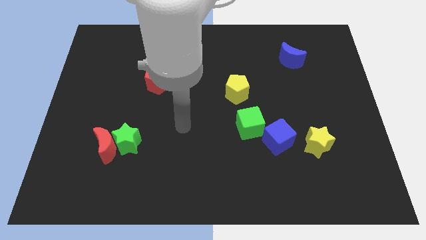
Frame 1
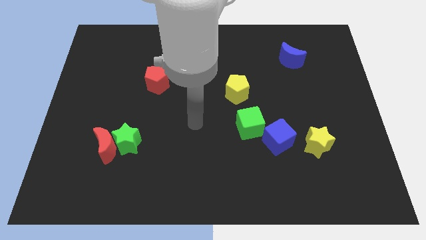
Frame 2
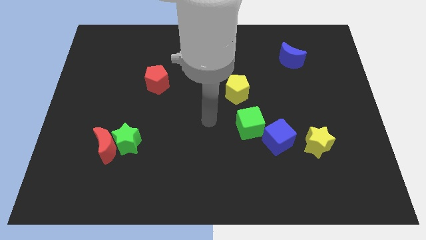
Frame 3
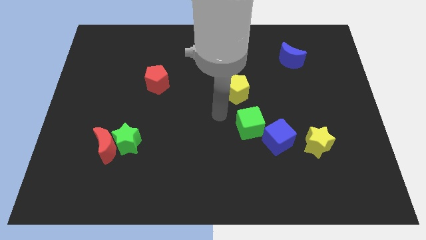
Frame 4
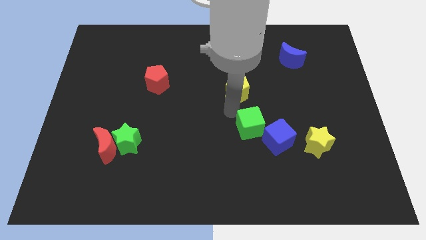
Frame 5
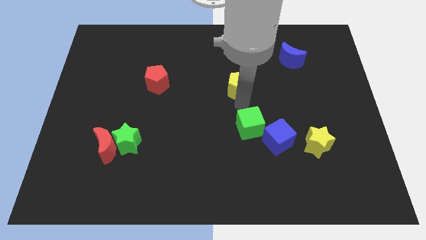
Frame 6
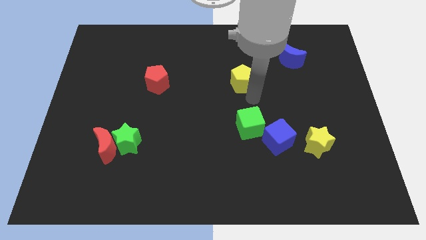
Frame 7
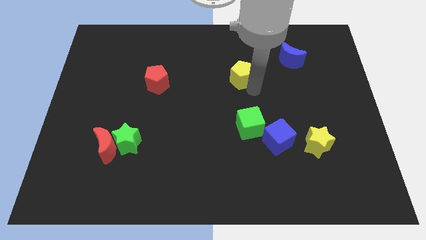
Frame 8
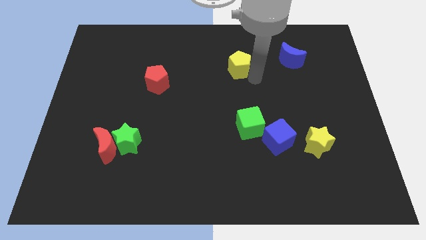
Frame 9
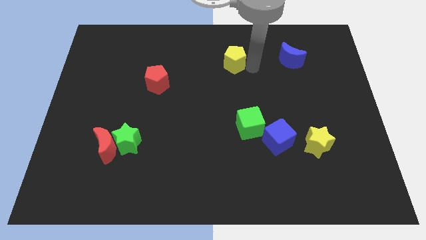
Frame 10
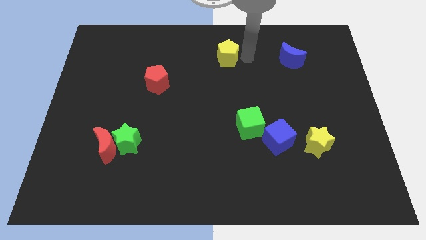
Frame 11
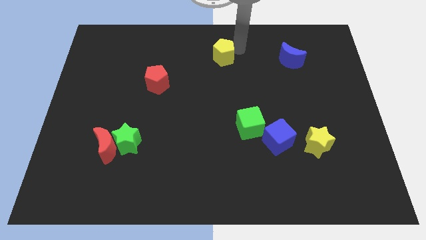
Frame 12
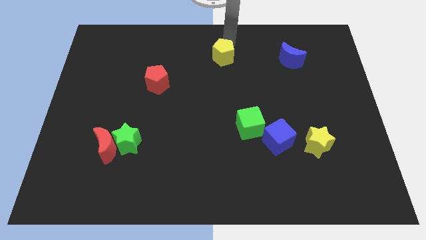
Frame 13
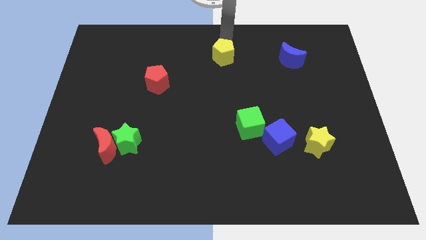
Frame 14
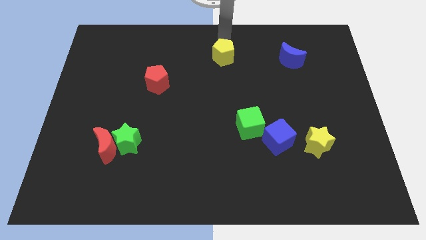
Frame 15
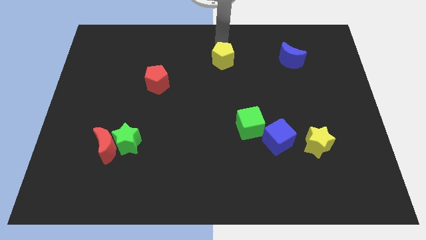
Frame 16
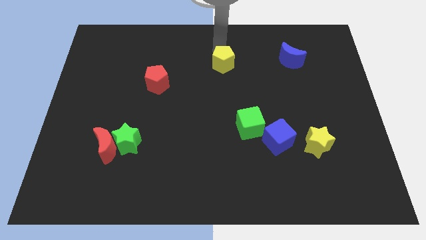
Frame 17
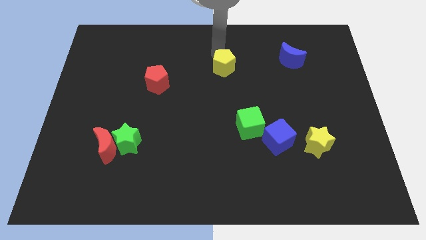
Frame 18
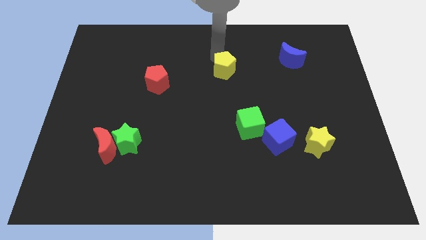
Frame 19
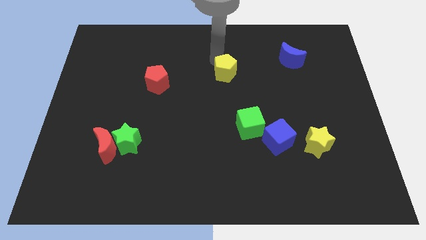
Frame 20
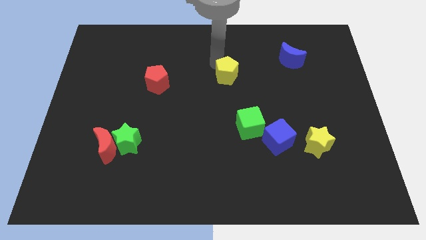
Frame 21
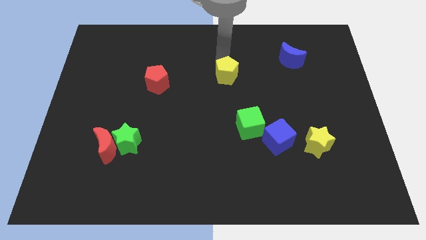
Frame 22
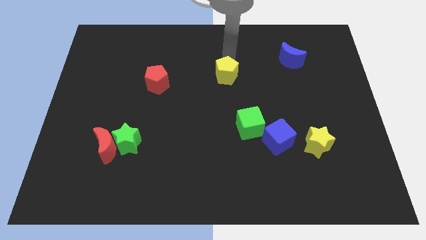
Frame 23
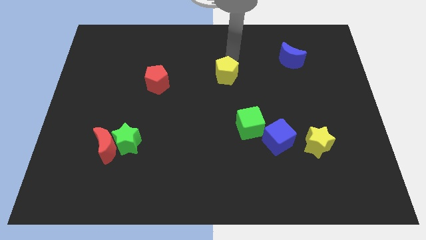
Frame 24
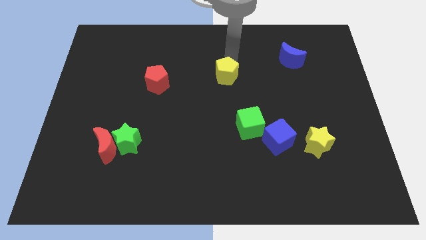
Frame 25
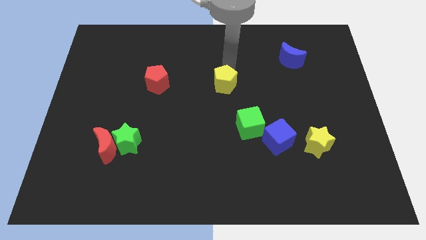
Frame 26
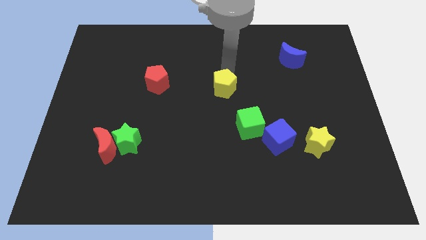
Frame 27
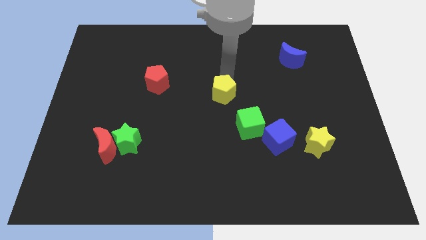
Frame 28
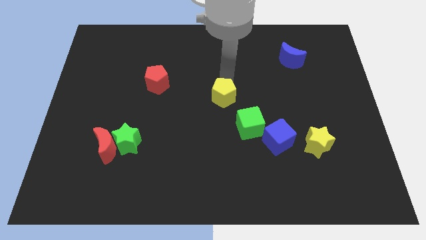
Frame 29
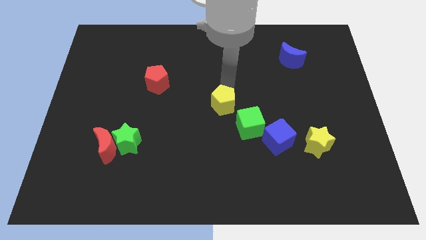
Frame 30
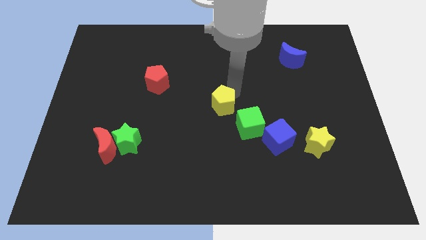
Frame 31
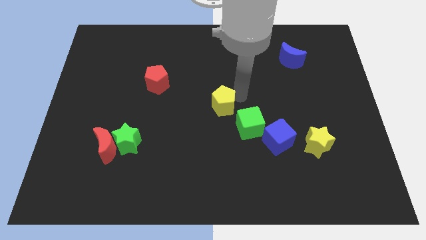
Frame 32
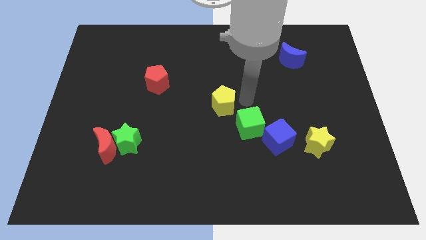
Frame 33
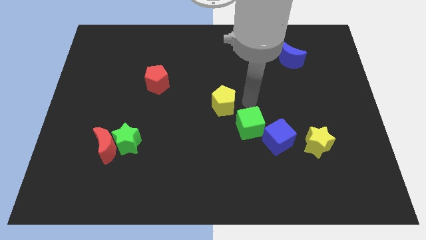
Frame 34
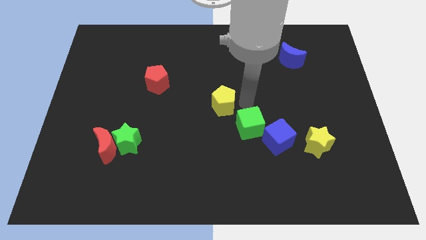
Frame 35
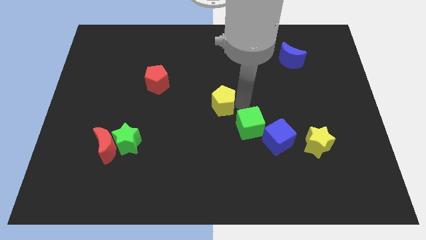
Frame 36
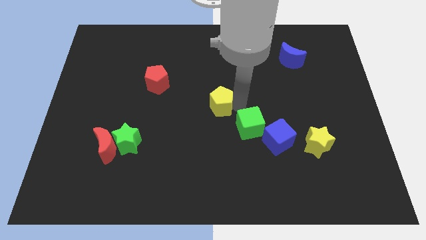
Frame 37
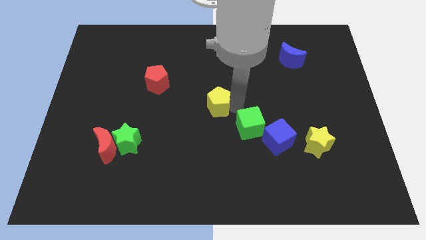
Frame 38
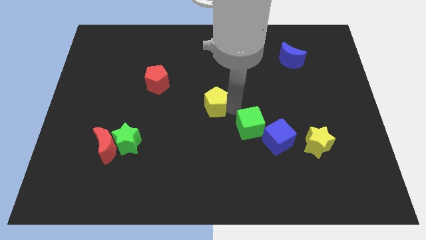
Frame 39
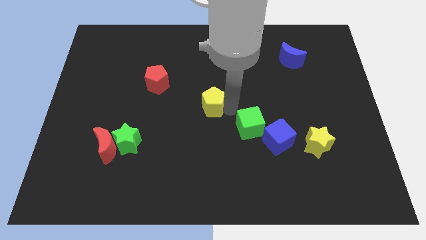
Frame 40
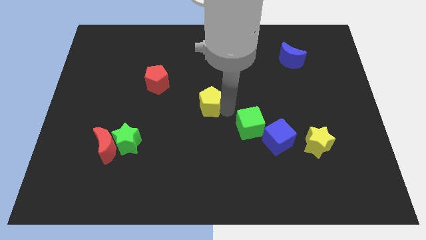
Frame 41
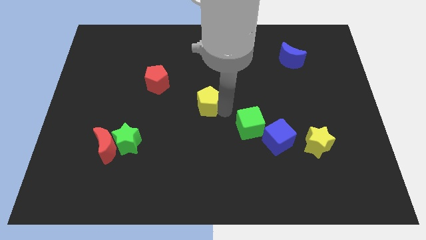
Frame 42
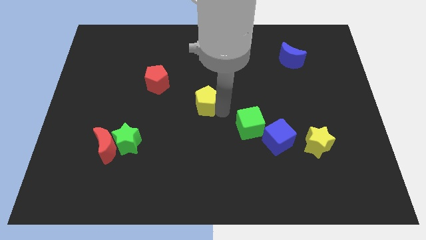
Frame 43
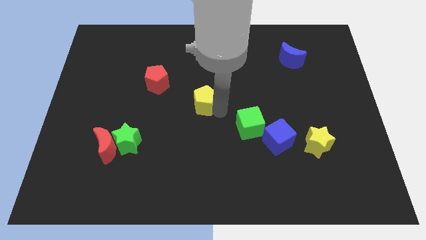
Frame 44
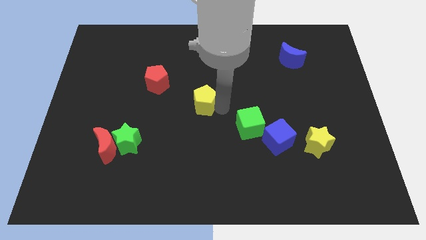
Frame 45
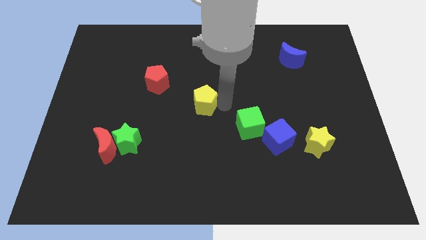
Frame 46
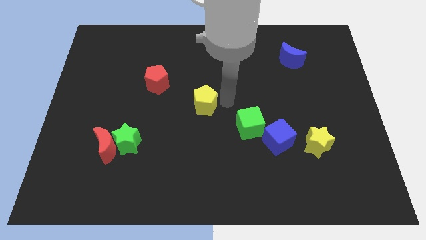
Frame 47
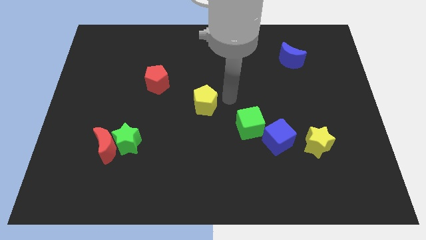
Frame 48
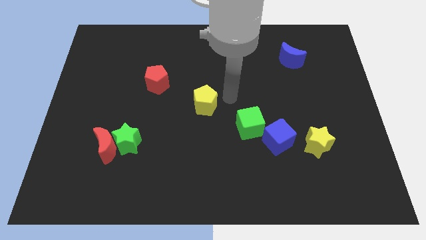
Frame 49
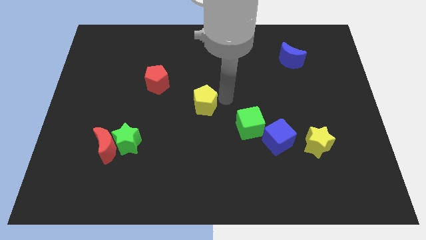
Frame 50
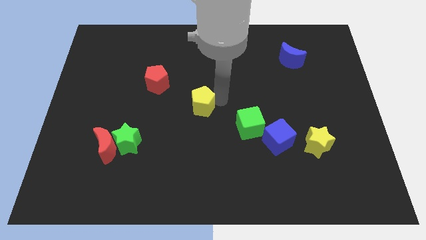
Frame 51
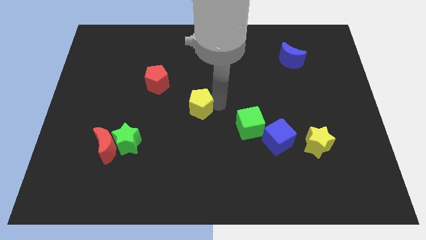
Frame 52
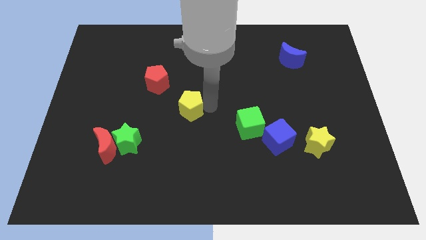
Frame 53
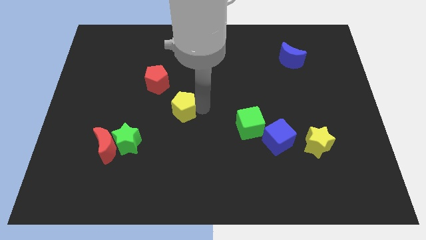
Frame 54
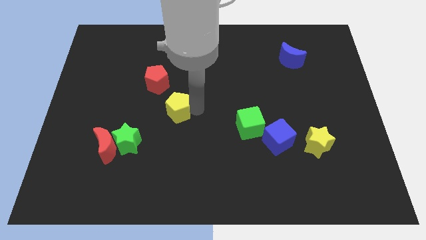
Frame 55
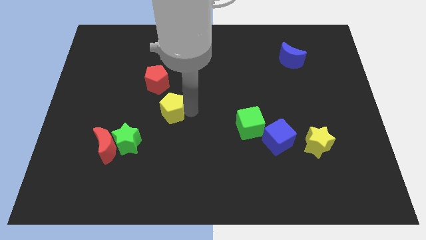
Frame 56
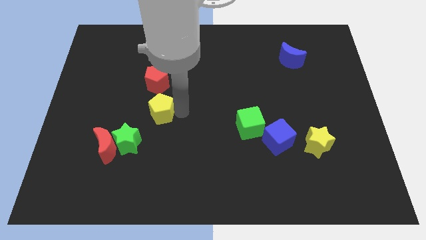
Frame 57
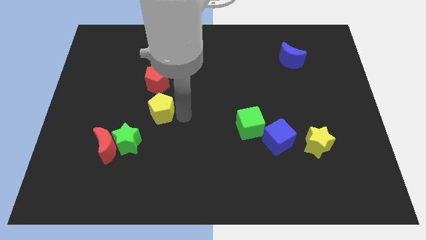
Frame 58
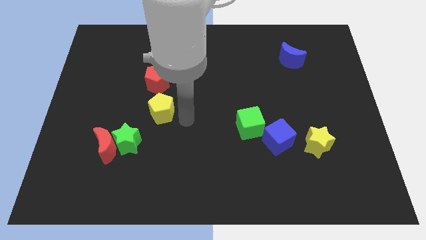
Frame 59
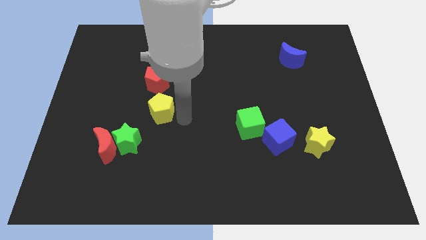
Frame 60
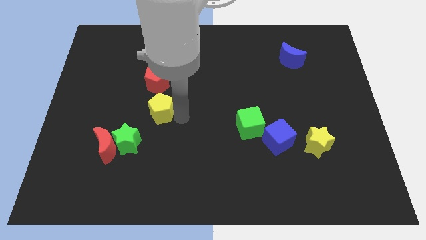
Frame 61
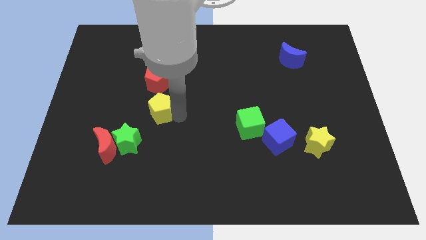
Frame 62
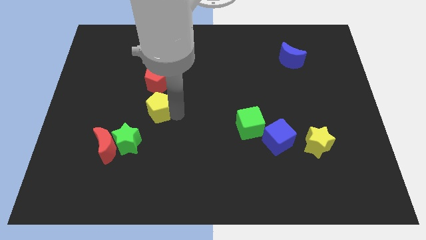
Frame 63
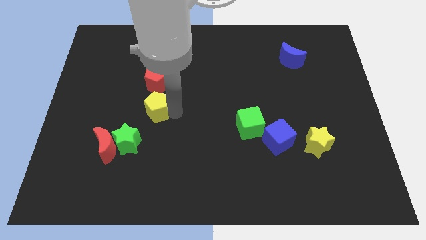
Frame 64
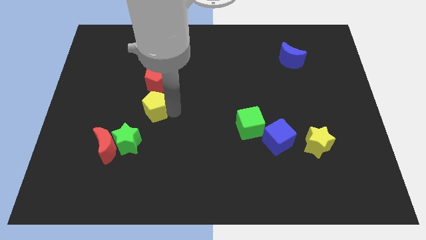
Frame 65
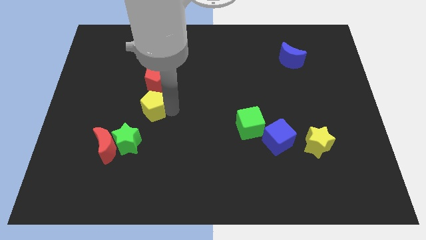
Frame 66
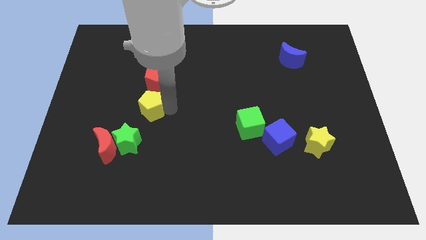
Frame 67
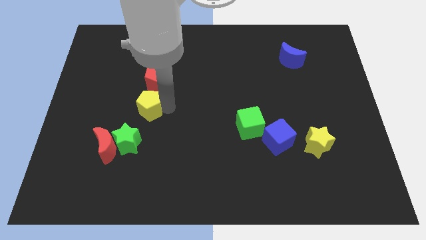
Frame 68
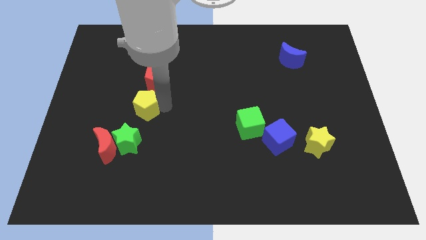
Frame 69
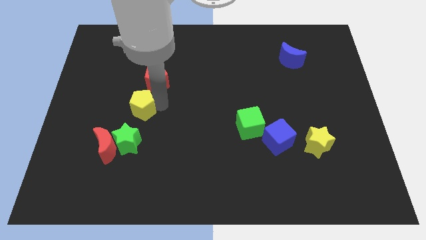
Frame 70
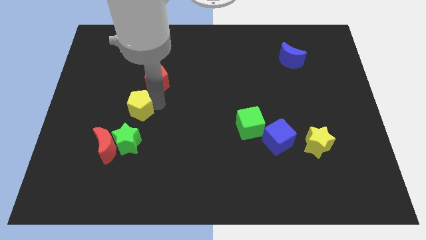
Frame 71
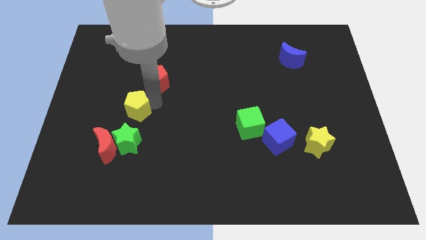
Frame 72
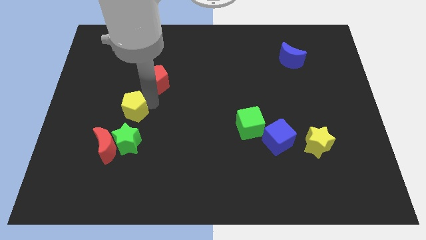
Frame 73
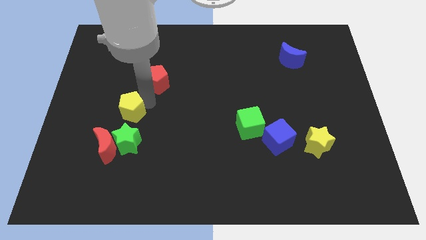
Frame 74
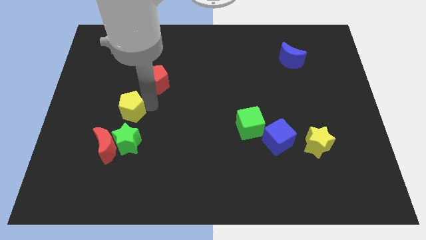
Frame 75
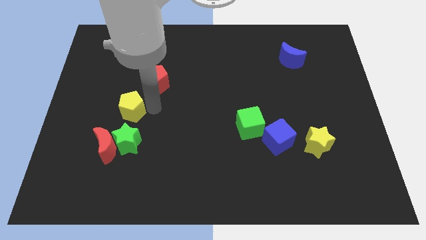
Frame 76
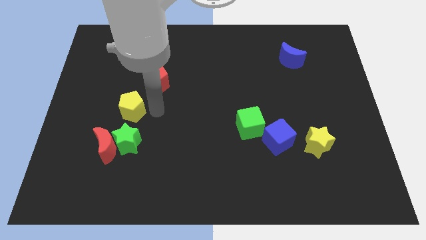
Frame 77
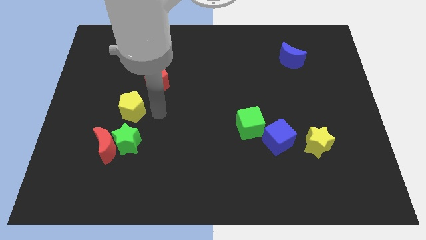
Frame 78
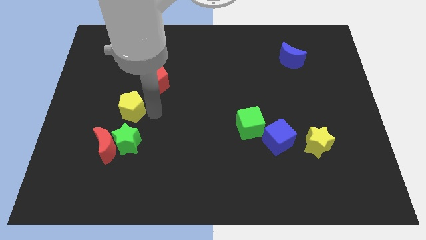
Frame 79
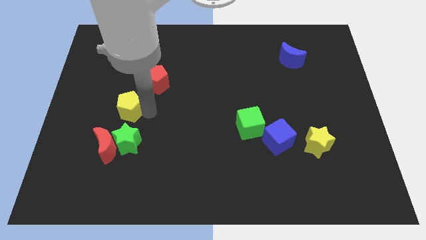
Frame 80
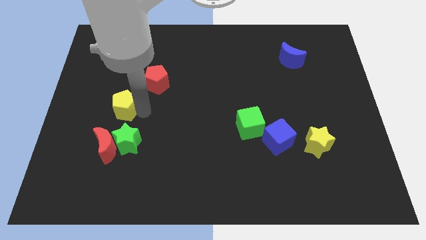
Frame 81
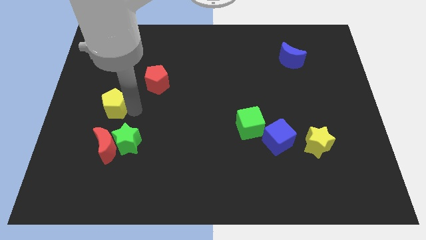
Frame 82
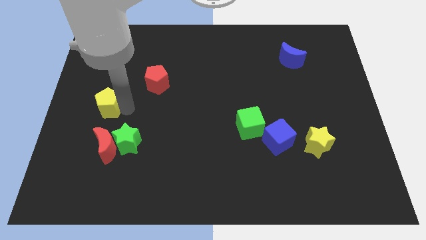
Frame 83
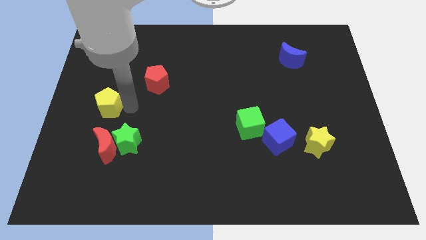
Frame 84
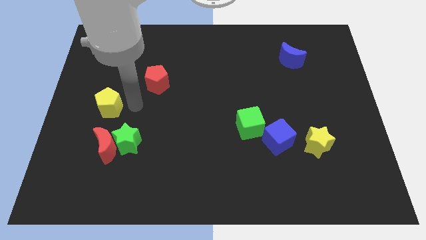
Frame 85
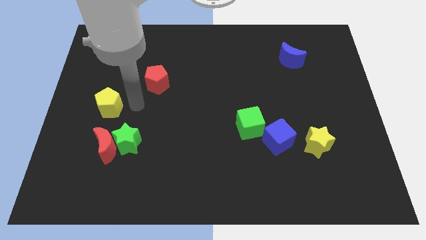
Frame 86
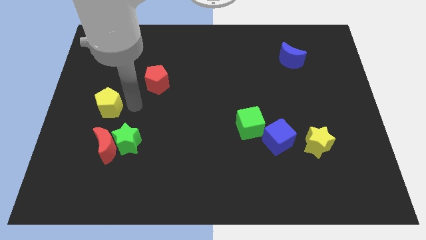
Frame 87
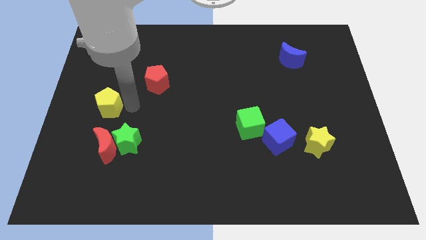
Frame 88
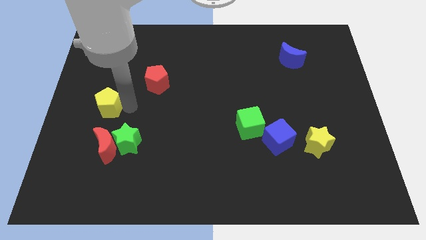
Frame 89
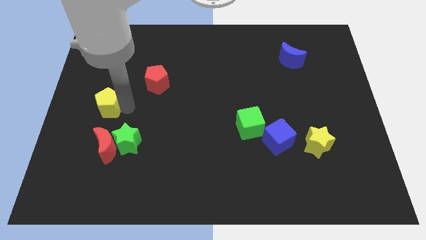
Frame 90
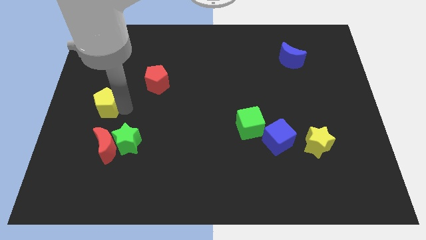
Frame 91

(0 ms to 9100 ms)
move the yellow pentagon to the left side of the board
